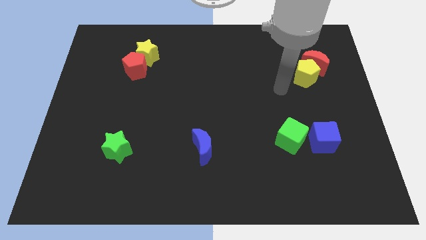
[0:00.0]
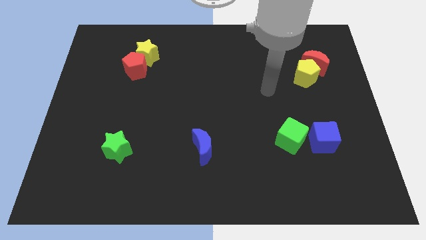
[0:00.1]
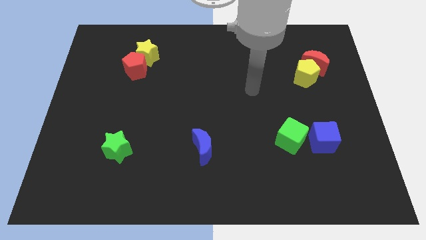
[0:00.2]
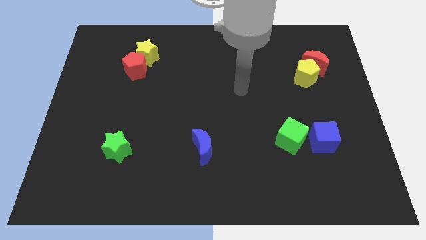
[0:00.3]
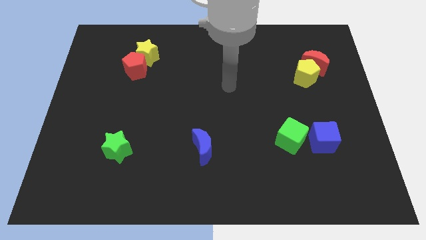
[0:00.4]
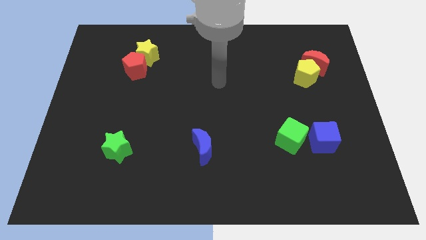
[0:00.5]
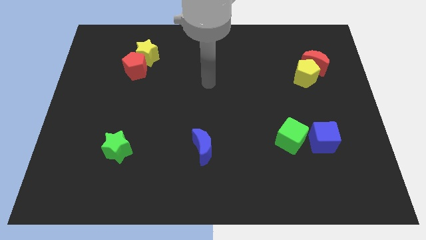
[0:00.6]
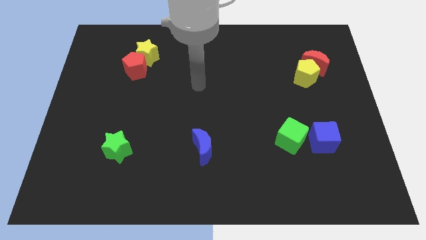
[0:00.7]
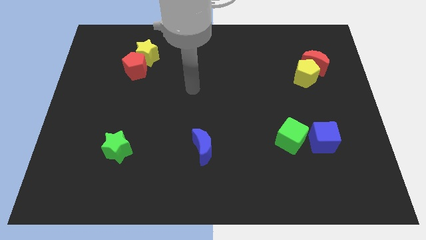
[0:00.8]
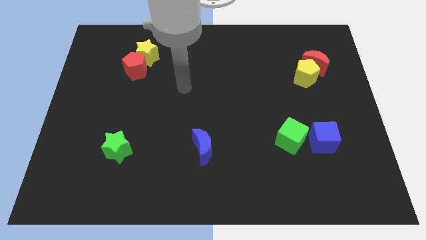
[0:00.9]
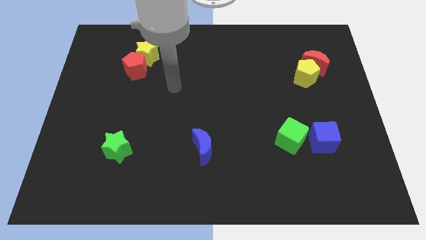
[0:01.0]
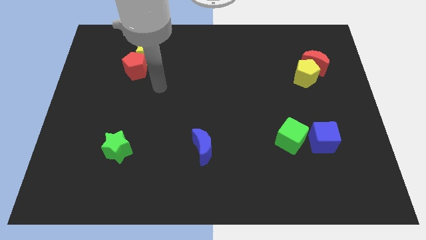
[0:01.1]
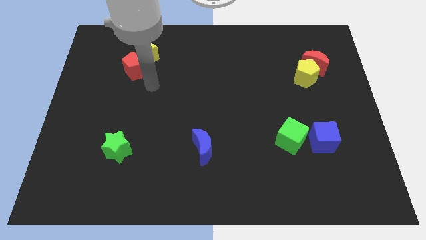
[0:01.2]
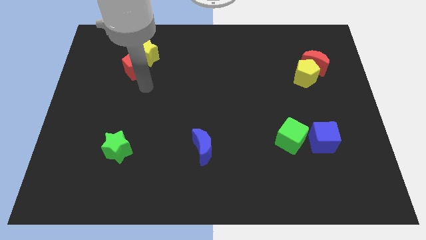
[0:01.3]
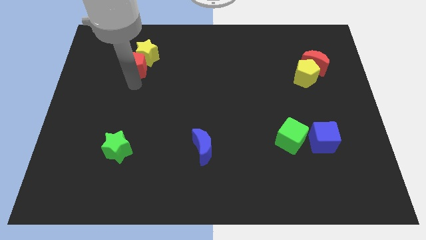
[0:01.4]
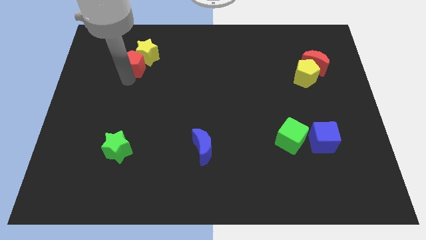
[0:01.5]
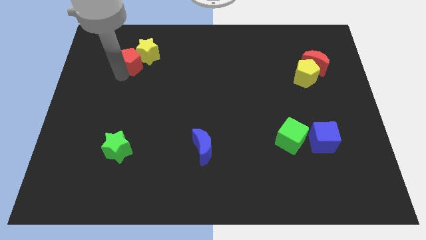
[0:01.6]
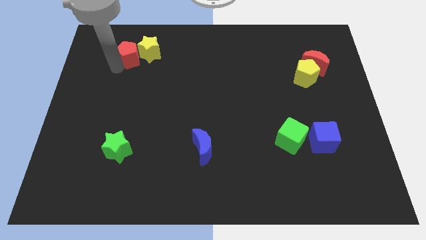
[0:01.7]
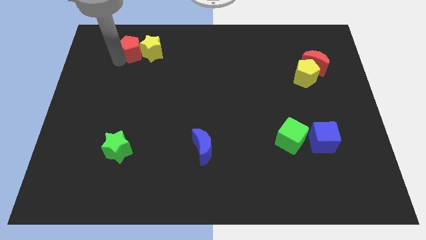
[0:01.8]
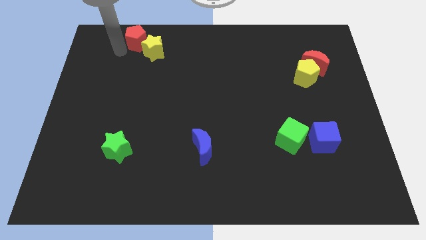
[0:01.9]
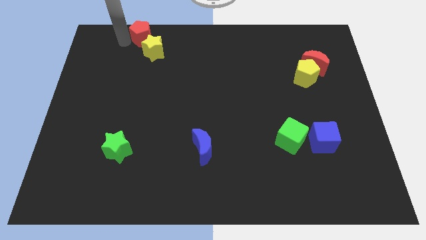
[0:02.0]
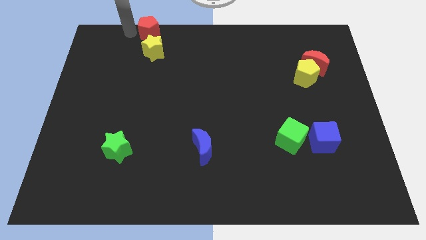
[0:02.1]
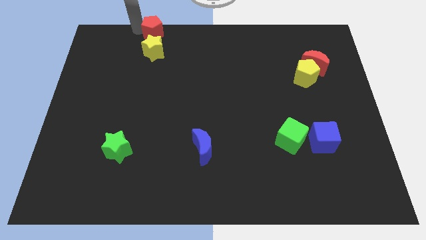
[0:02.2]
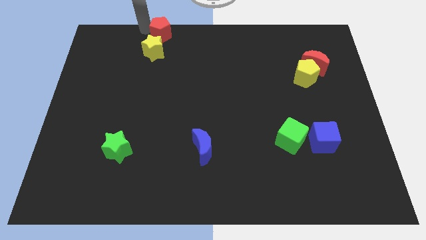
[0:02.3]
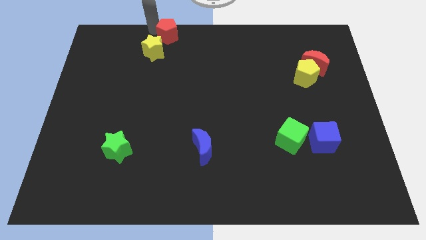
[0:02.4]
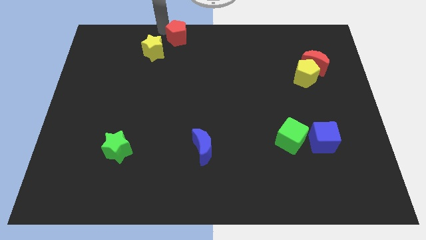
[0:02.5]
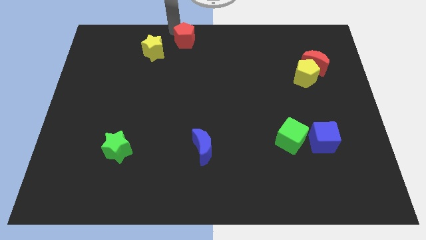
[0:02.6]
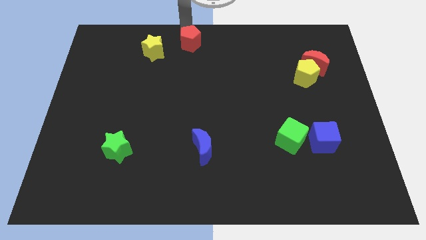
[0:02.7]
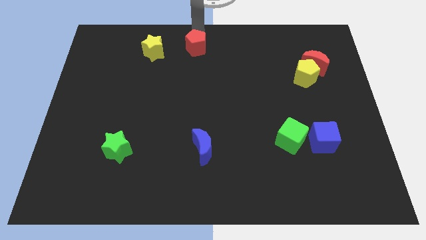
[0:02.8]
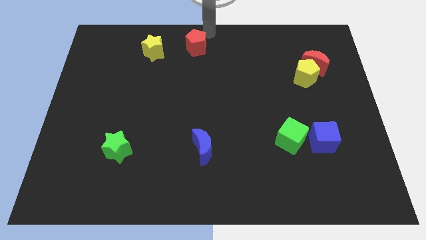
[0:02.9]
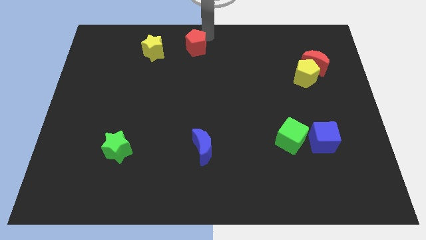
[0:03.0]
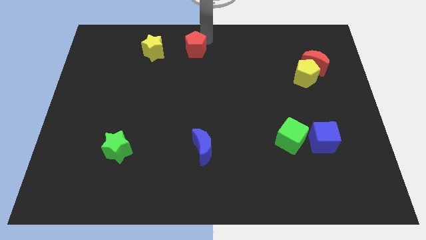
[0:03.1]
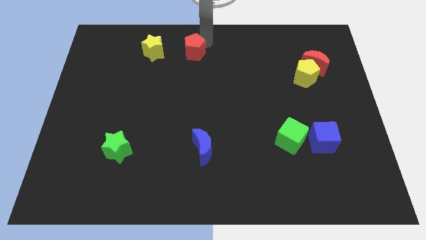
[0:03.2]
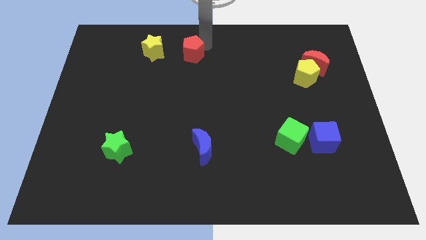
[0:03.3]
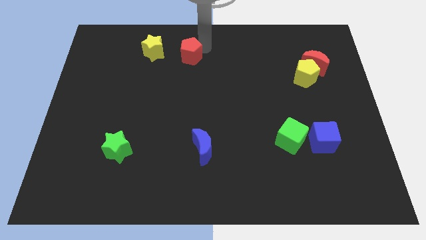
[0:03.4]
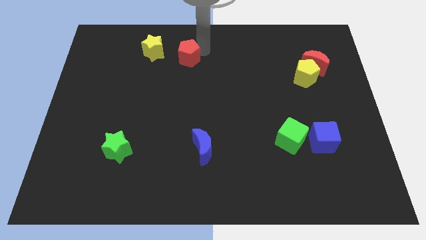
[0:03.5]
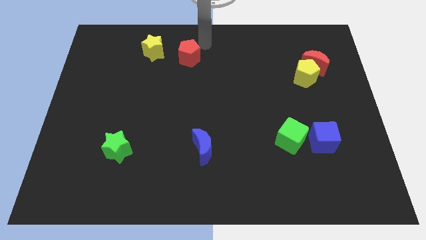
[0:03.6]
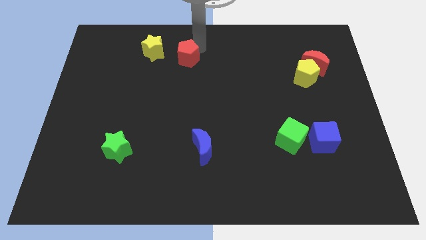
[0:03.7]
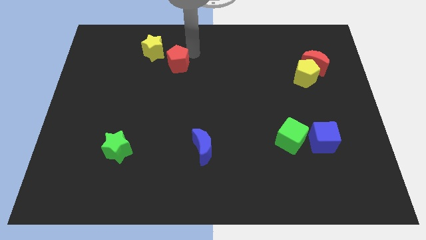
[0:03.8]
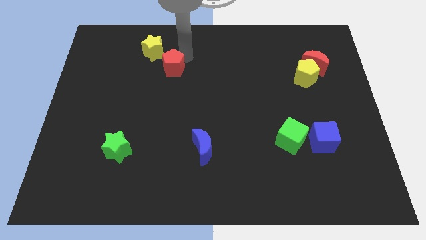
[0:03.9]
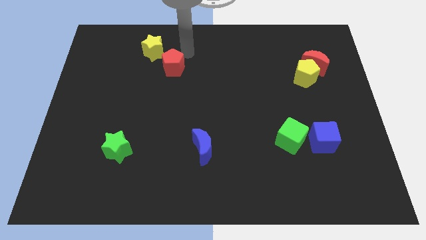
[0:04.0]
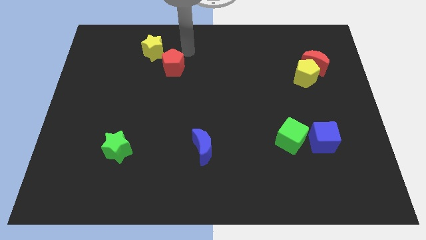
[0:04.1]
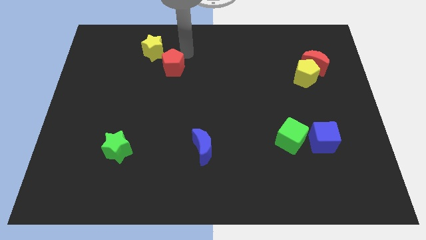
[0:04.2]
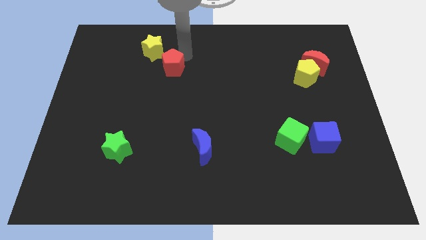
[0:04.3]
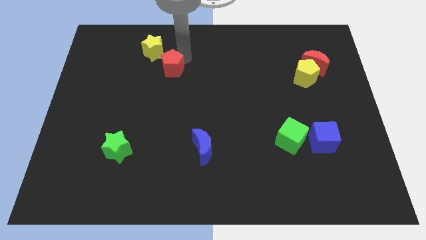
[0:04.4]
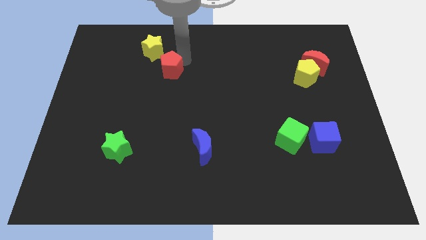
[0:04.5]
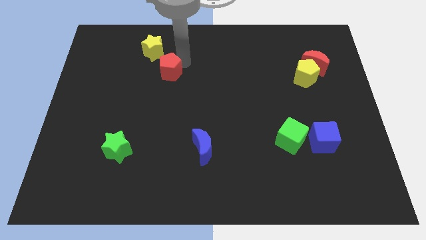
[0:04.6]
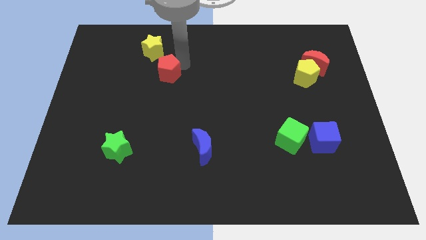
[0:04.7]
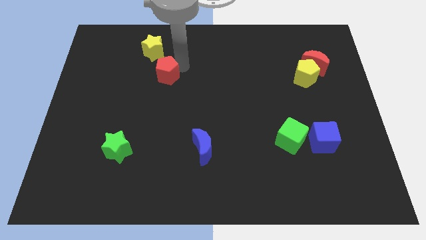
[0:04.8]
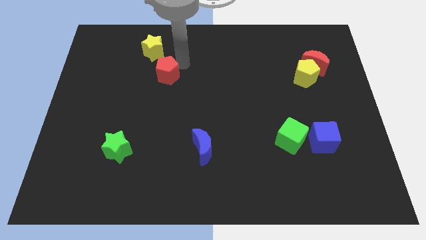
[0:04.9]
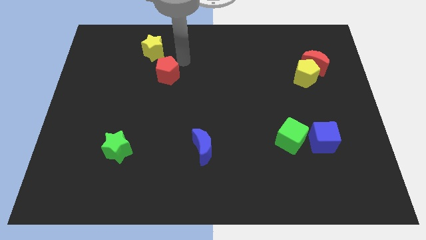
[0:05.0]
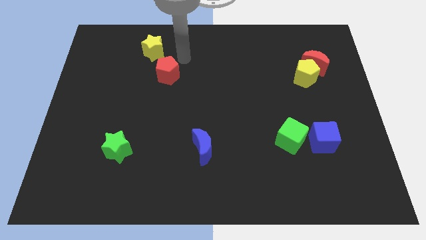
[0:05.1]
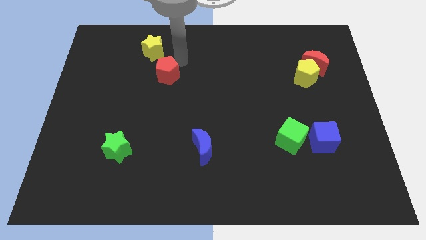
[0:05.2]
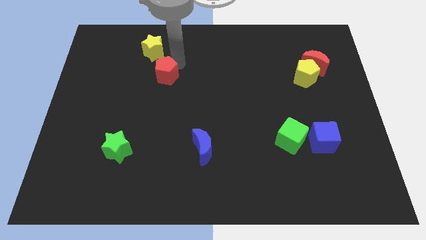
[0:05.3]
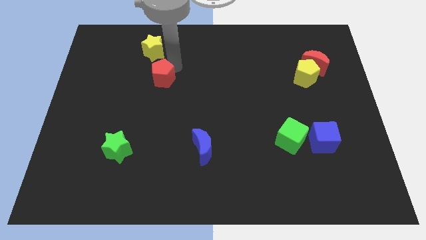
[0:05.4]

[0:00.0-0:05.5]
slide the red pentagon slightly downwards and then right

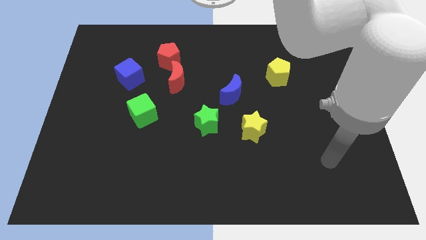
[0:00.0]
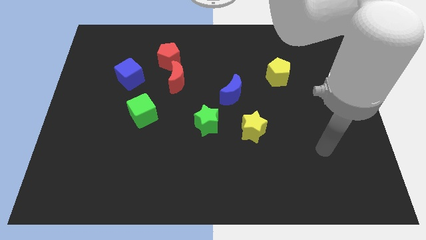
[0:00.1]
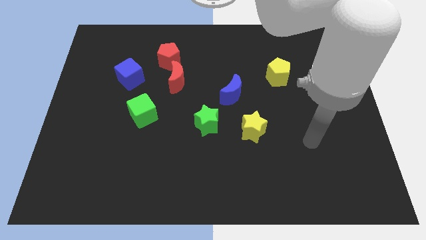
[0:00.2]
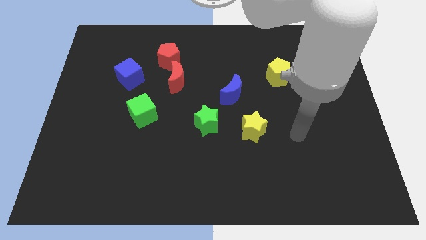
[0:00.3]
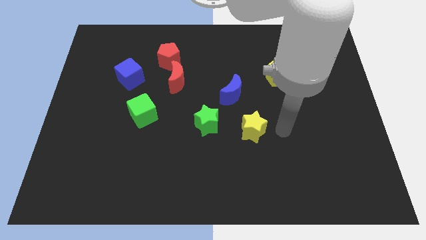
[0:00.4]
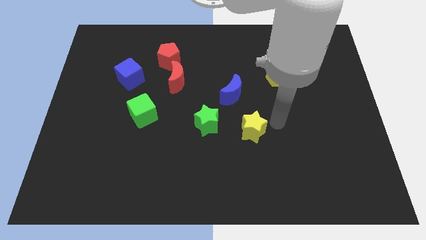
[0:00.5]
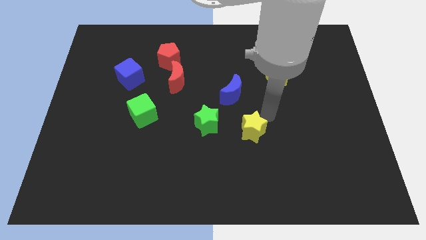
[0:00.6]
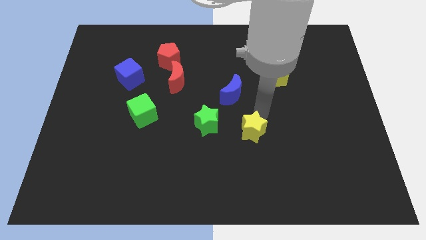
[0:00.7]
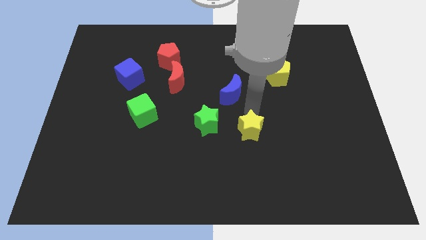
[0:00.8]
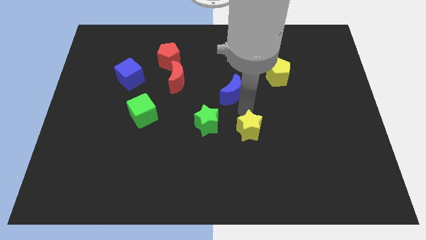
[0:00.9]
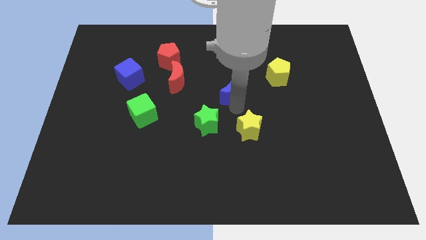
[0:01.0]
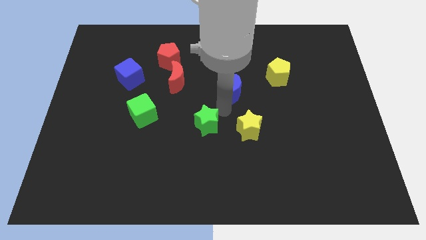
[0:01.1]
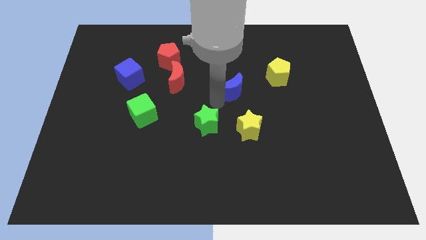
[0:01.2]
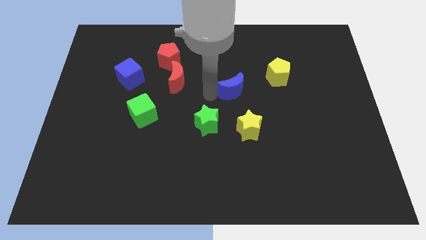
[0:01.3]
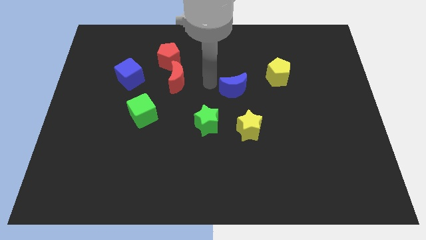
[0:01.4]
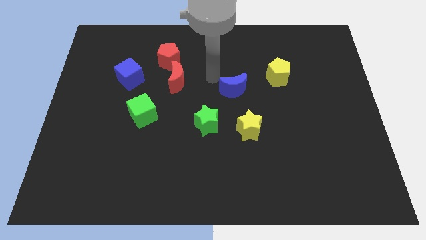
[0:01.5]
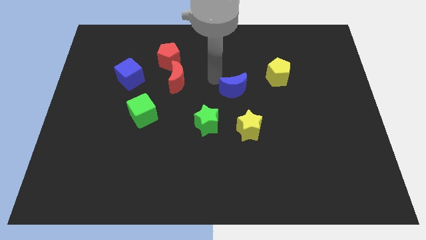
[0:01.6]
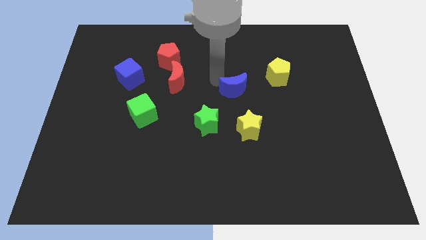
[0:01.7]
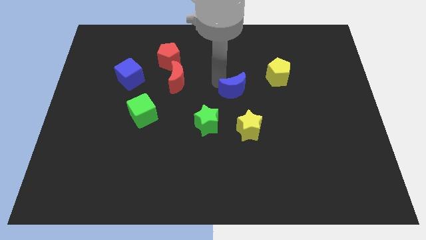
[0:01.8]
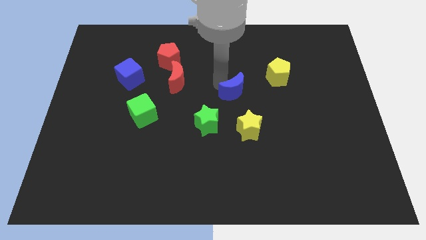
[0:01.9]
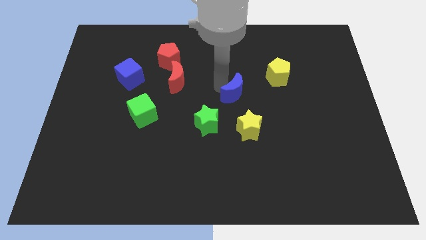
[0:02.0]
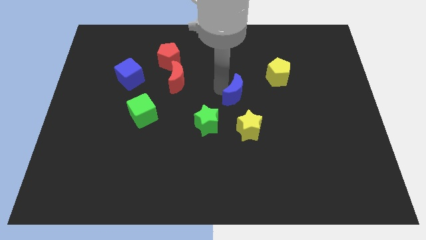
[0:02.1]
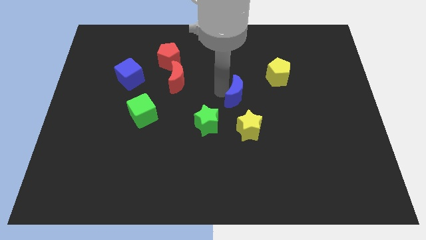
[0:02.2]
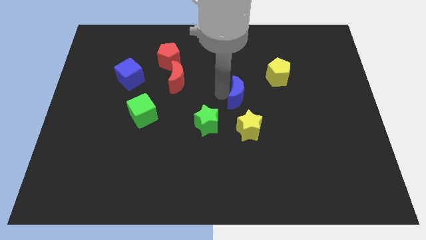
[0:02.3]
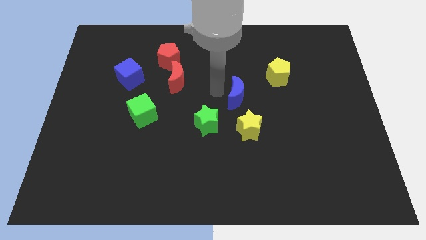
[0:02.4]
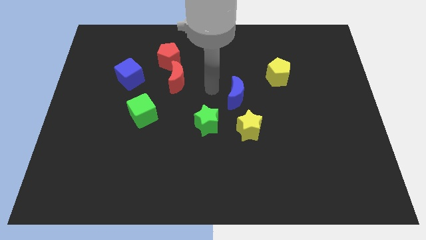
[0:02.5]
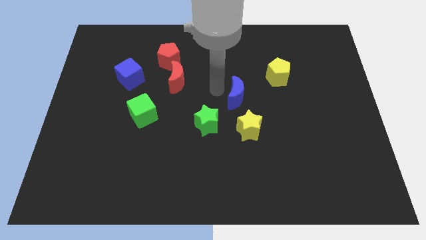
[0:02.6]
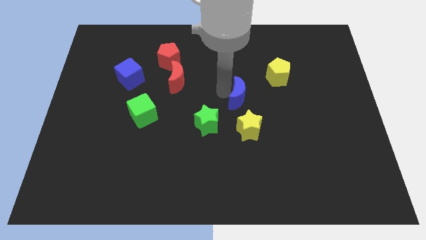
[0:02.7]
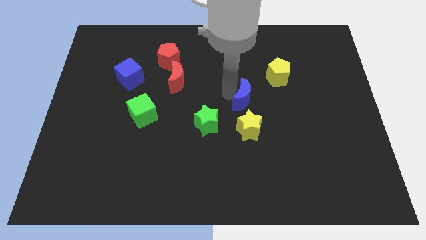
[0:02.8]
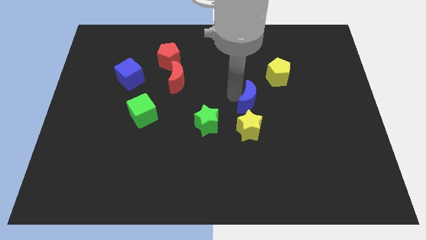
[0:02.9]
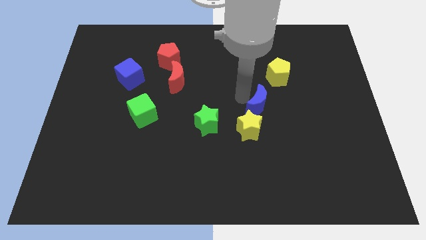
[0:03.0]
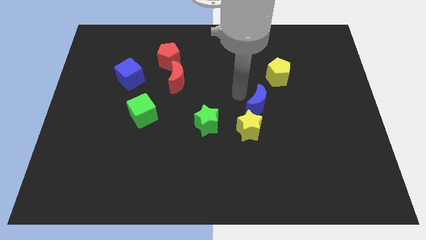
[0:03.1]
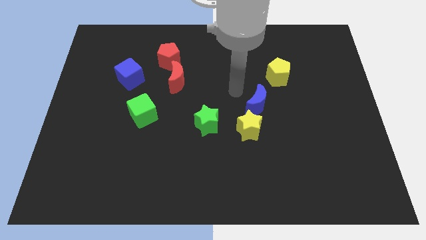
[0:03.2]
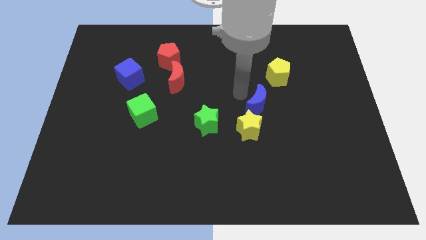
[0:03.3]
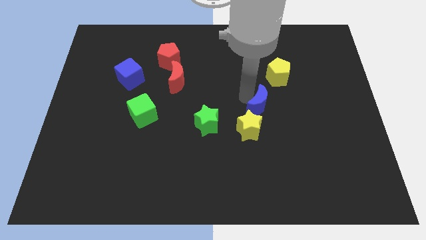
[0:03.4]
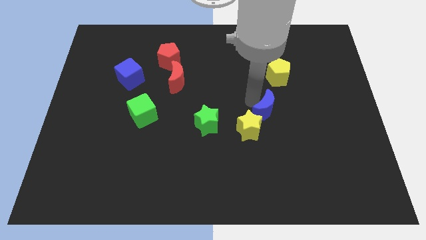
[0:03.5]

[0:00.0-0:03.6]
move the blue moon downwards and then right a little bit
